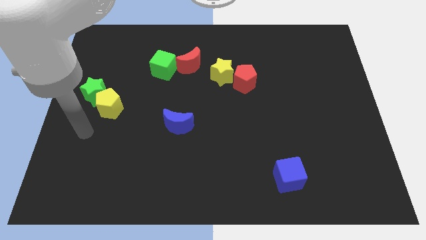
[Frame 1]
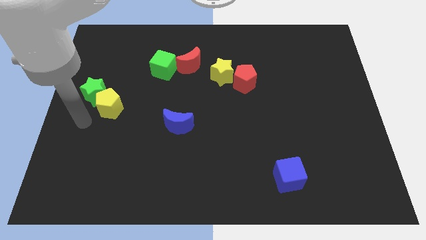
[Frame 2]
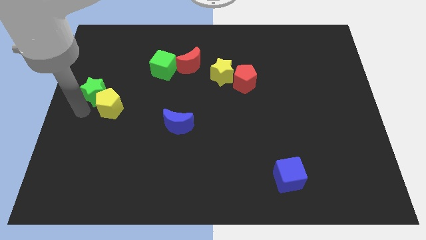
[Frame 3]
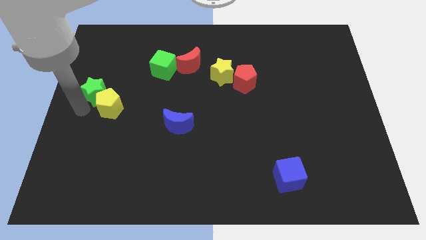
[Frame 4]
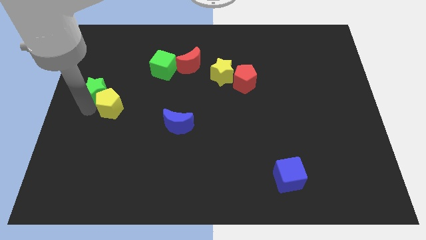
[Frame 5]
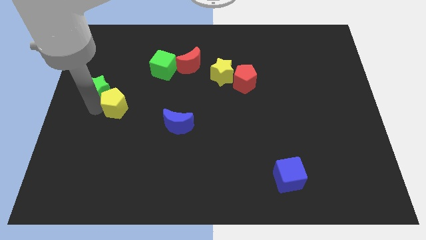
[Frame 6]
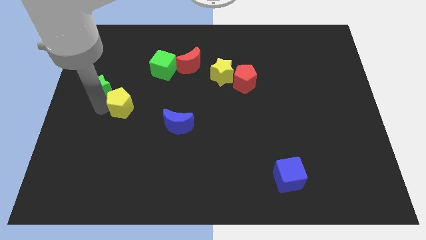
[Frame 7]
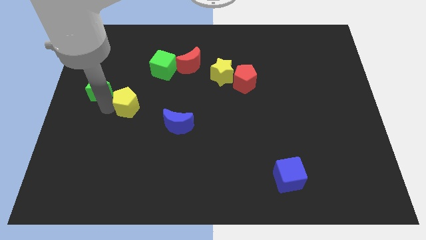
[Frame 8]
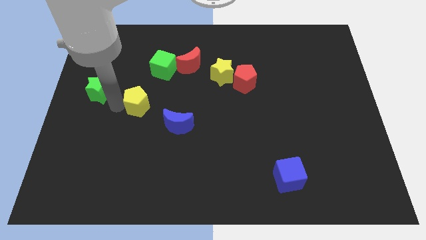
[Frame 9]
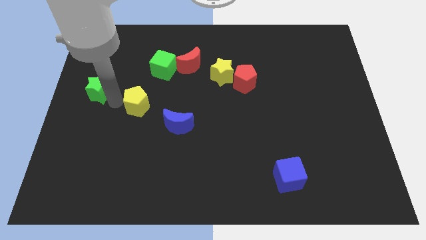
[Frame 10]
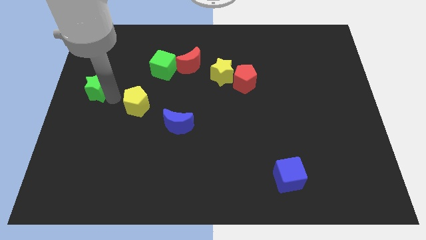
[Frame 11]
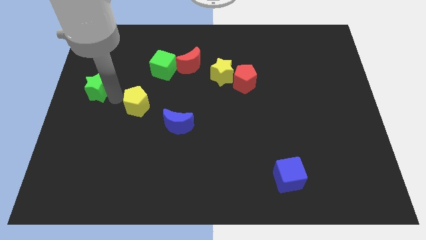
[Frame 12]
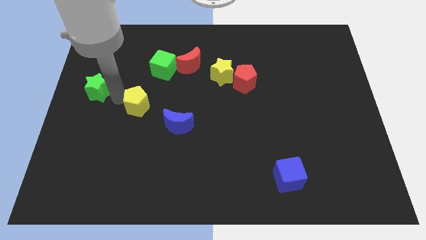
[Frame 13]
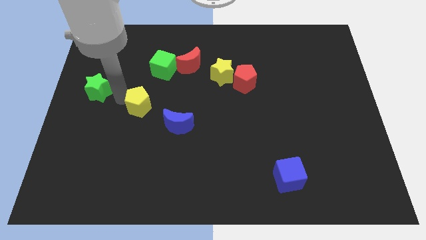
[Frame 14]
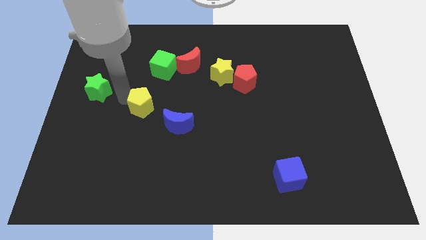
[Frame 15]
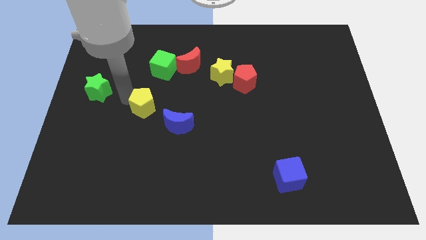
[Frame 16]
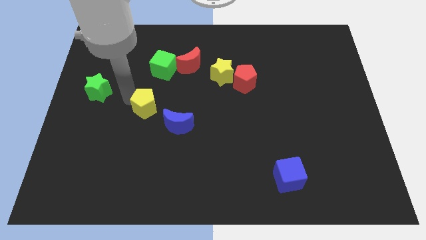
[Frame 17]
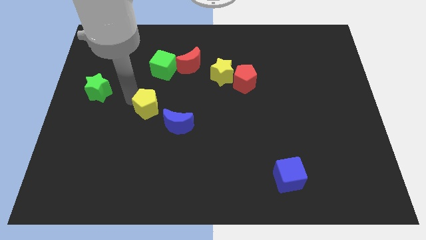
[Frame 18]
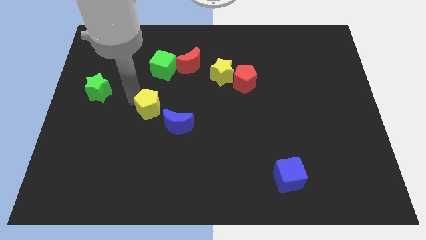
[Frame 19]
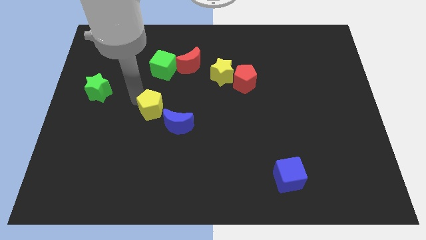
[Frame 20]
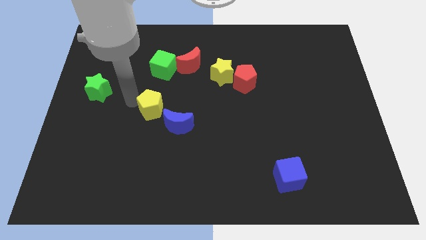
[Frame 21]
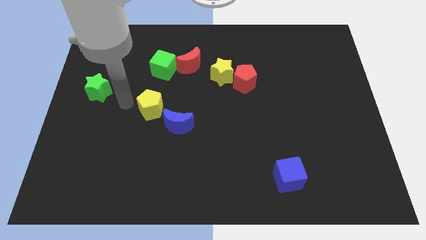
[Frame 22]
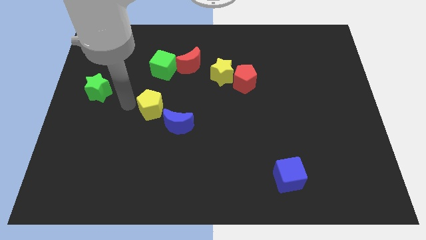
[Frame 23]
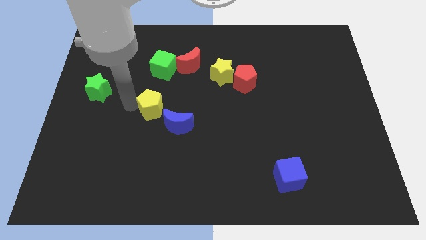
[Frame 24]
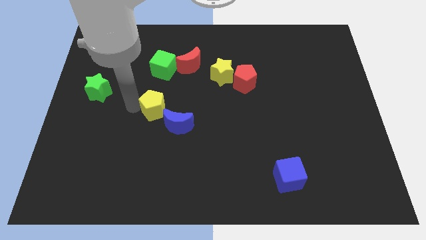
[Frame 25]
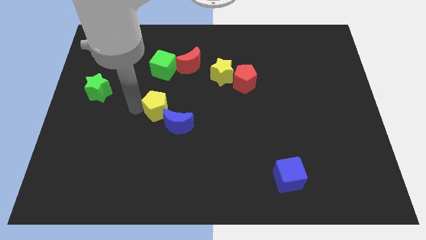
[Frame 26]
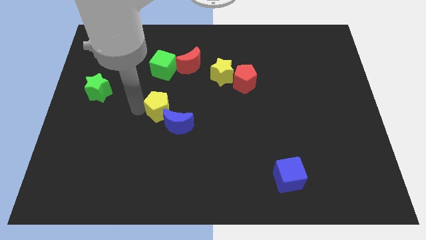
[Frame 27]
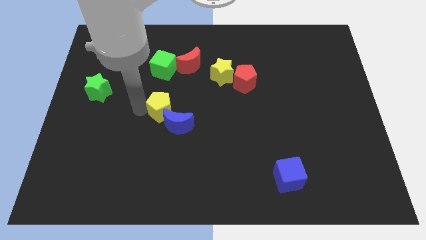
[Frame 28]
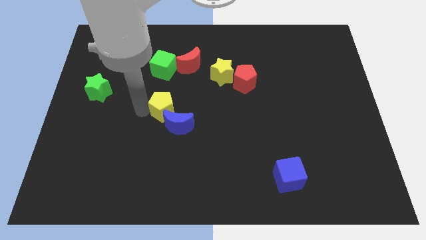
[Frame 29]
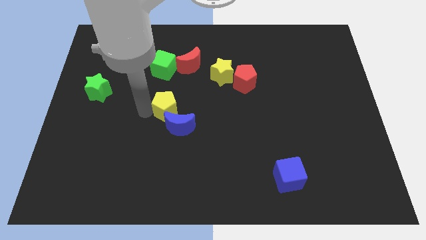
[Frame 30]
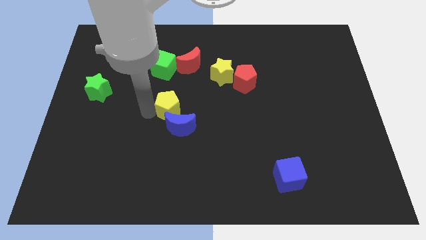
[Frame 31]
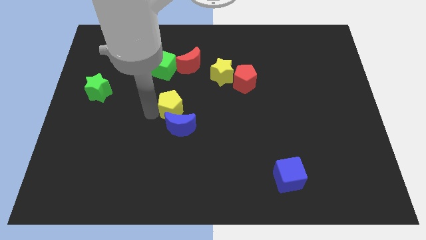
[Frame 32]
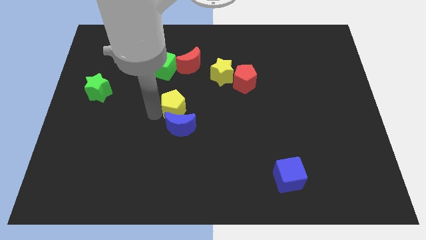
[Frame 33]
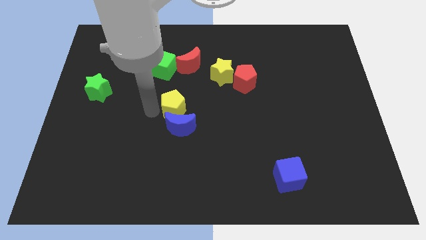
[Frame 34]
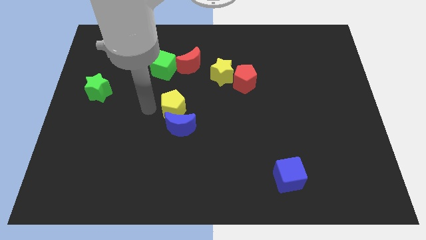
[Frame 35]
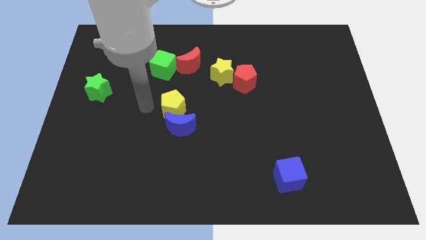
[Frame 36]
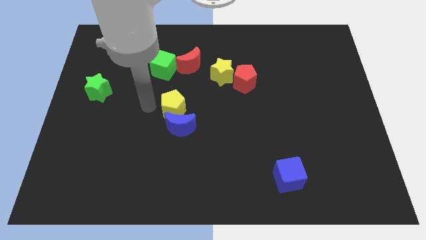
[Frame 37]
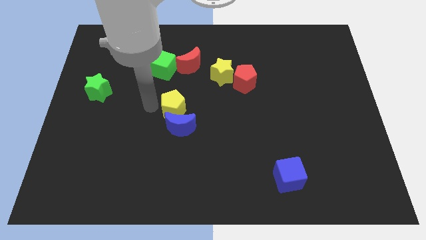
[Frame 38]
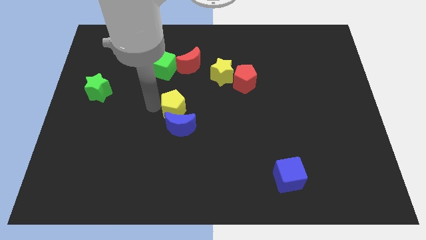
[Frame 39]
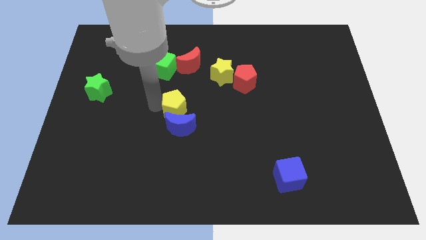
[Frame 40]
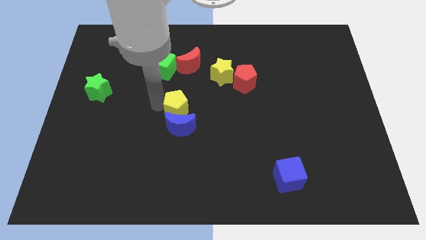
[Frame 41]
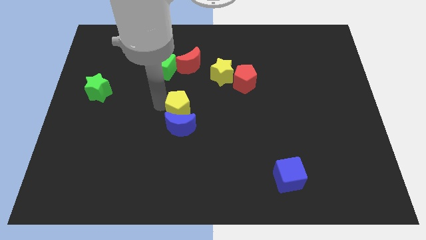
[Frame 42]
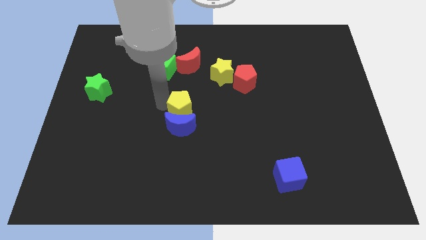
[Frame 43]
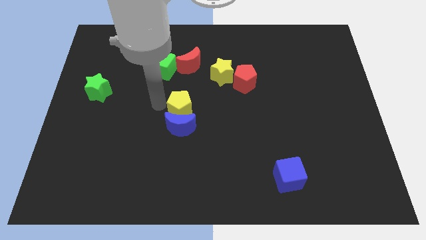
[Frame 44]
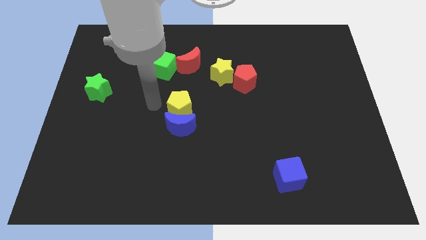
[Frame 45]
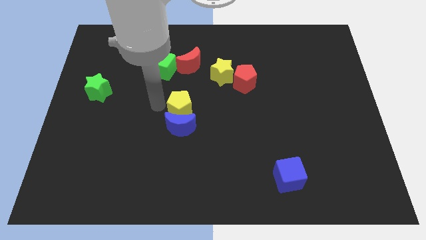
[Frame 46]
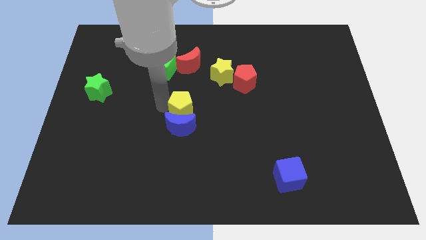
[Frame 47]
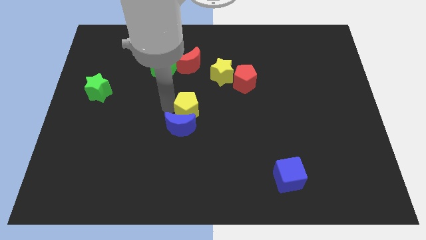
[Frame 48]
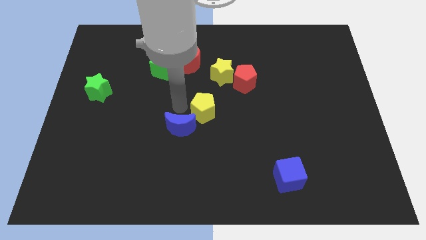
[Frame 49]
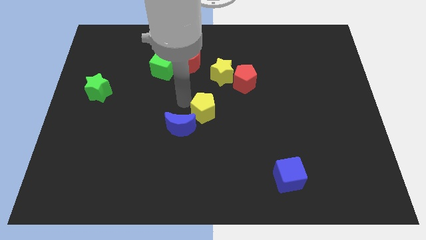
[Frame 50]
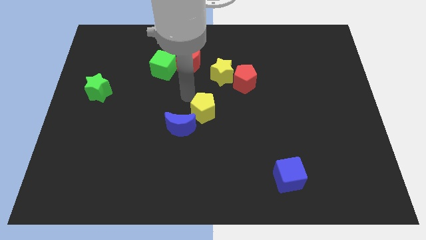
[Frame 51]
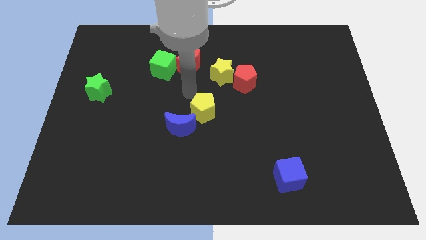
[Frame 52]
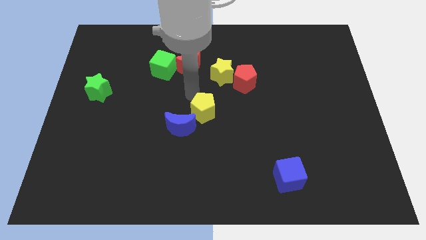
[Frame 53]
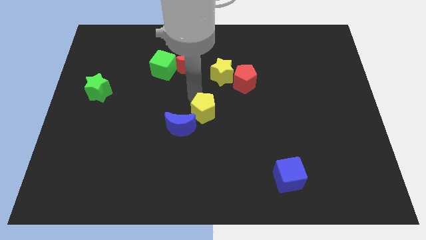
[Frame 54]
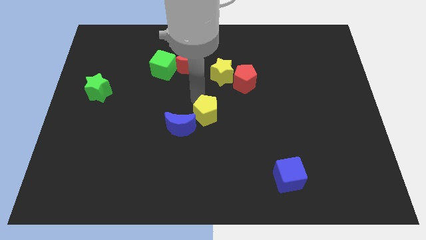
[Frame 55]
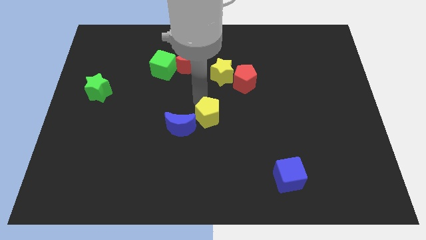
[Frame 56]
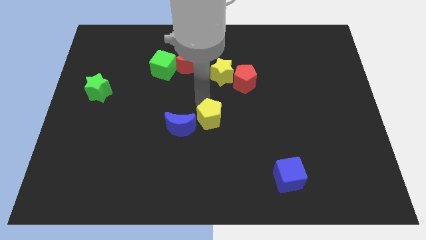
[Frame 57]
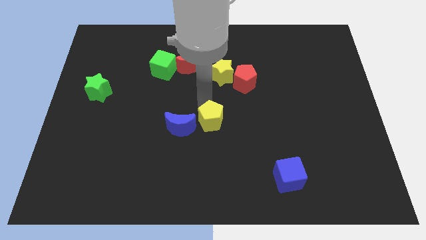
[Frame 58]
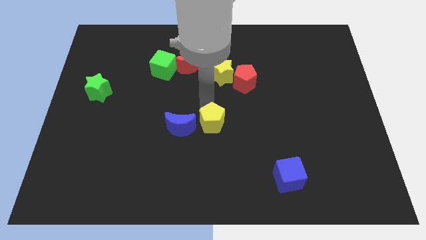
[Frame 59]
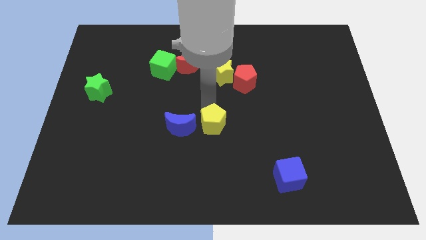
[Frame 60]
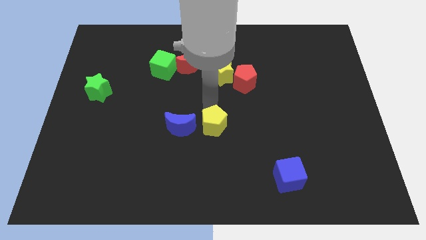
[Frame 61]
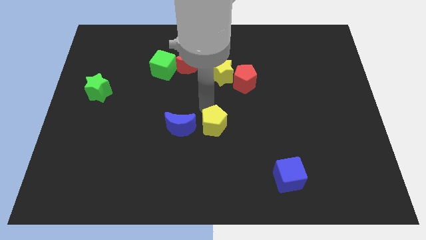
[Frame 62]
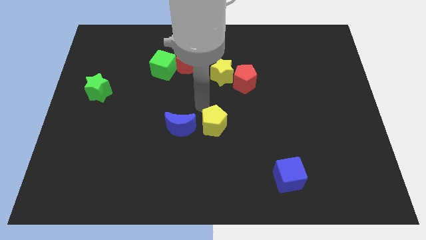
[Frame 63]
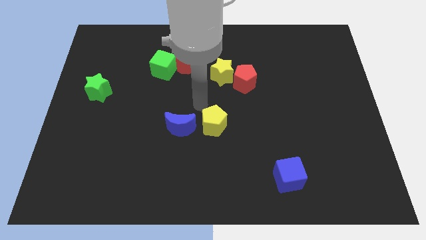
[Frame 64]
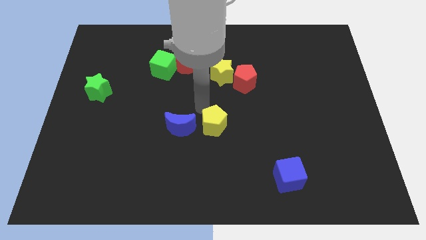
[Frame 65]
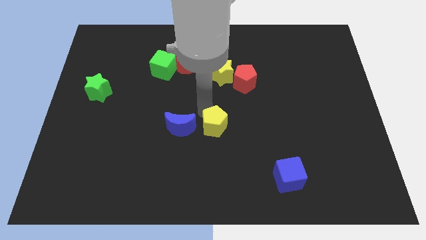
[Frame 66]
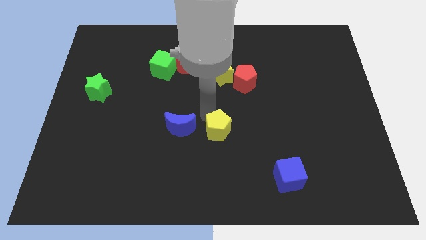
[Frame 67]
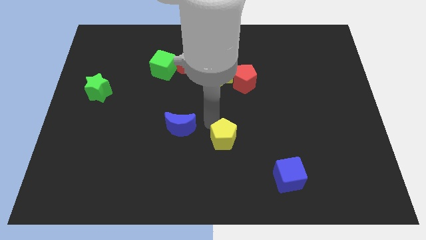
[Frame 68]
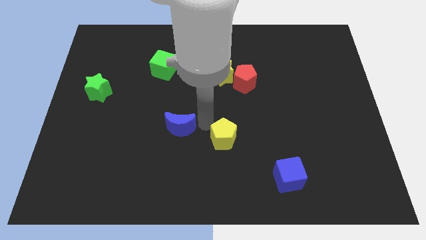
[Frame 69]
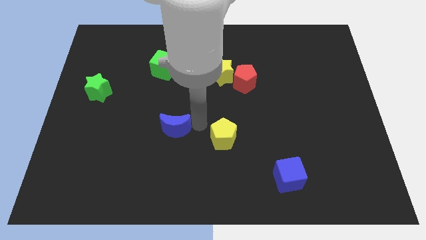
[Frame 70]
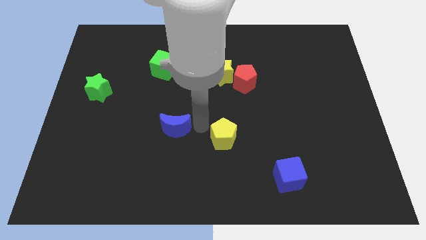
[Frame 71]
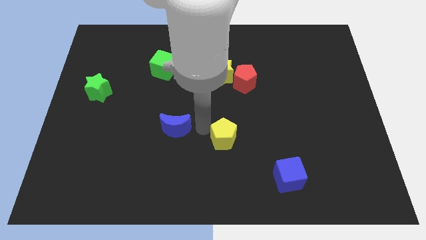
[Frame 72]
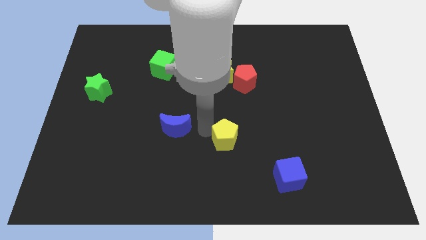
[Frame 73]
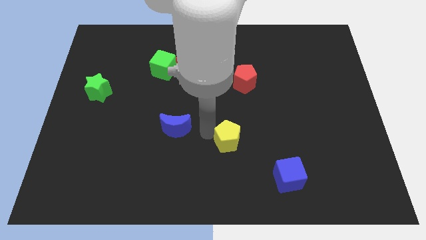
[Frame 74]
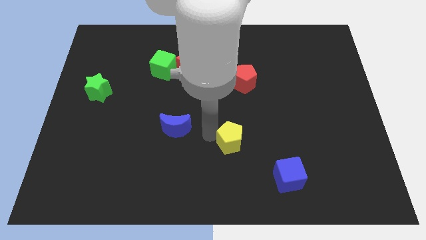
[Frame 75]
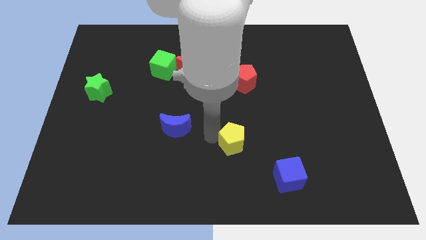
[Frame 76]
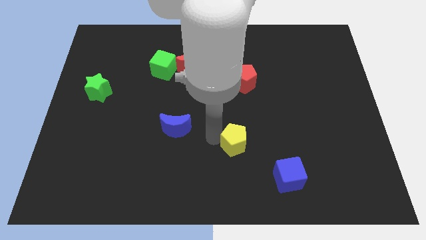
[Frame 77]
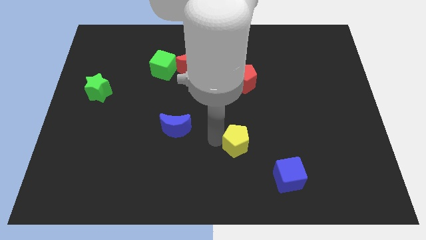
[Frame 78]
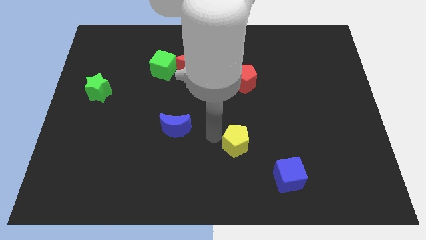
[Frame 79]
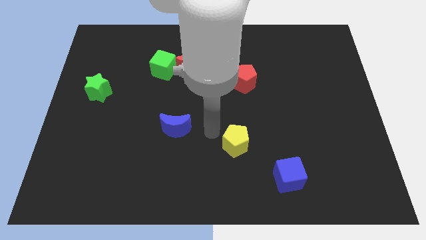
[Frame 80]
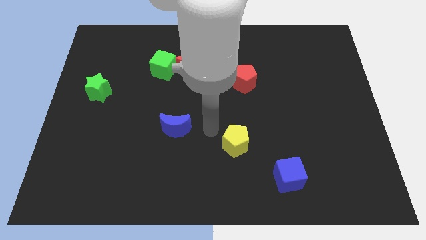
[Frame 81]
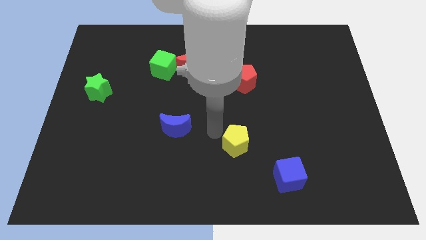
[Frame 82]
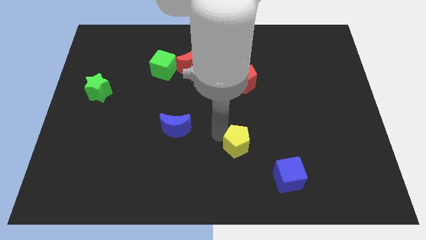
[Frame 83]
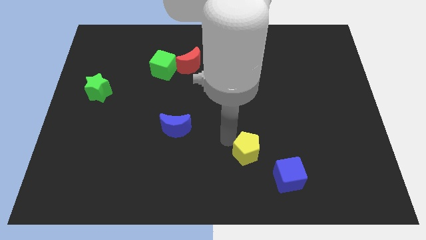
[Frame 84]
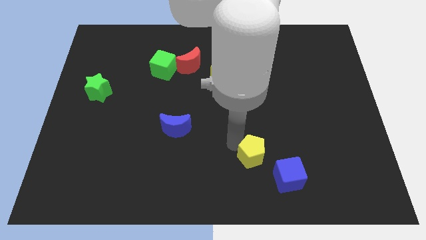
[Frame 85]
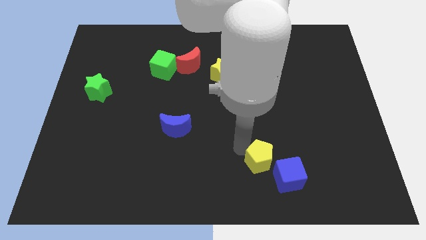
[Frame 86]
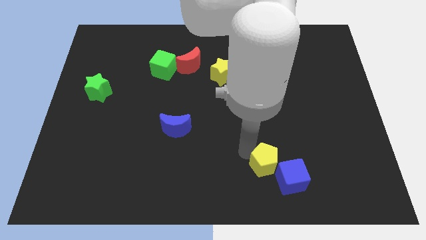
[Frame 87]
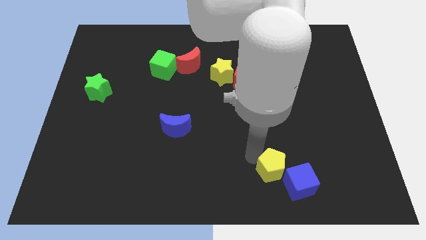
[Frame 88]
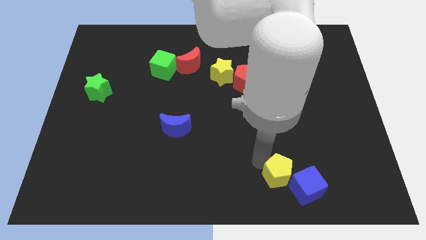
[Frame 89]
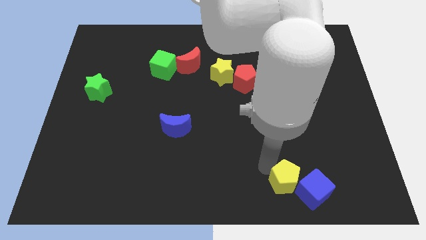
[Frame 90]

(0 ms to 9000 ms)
push the yellow pentagon next to the blue cube
